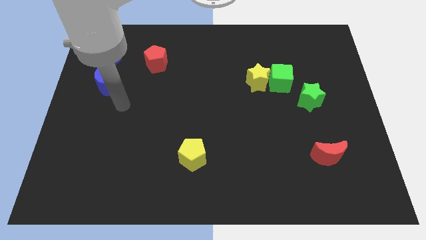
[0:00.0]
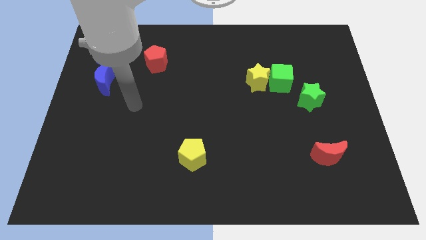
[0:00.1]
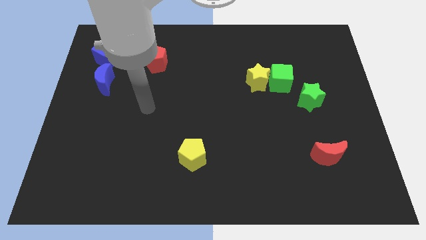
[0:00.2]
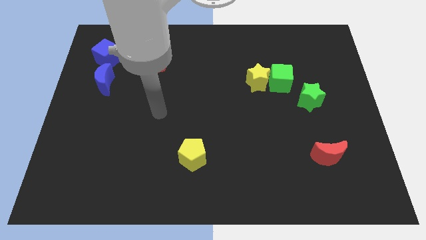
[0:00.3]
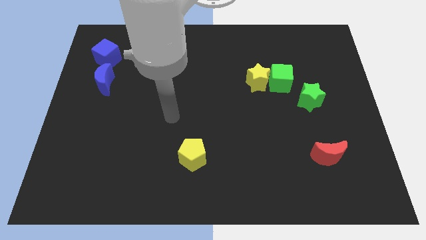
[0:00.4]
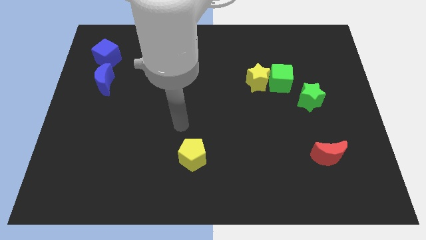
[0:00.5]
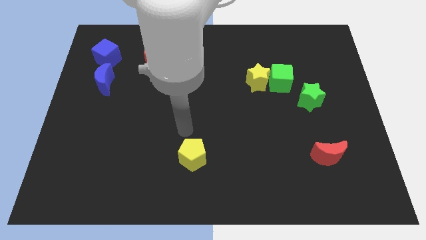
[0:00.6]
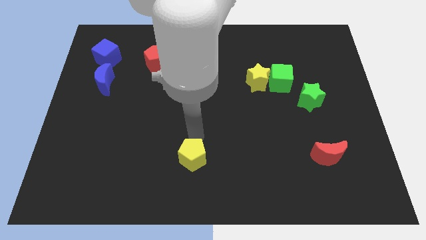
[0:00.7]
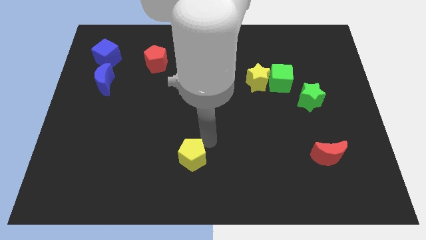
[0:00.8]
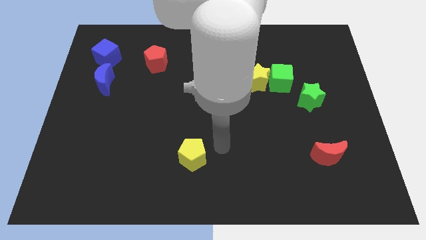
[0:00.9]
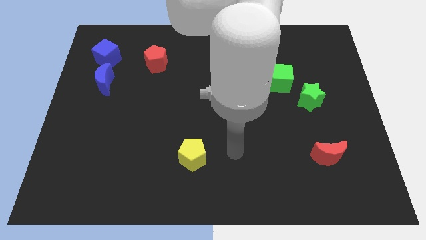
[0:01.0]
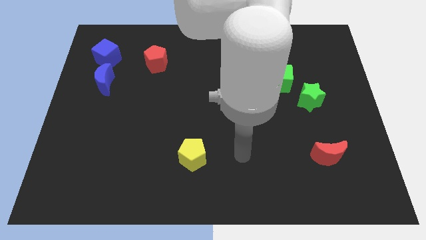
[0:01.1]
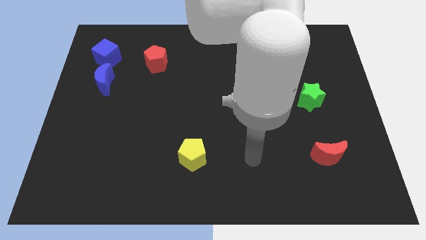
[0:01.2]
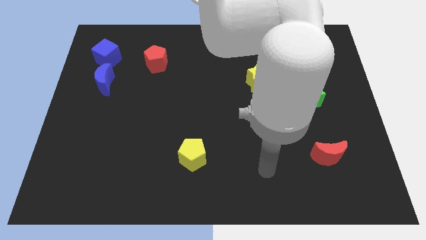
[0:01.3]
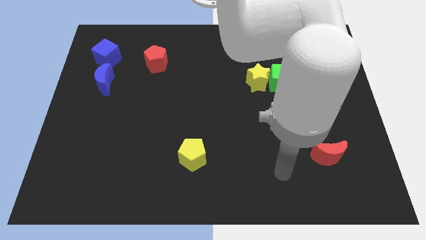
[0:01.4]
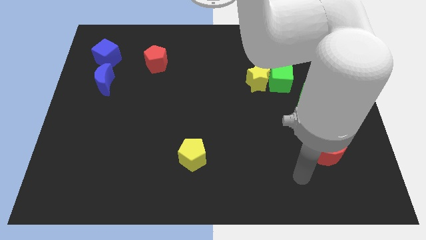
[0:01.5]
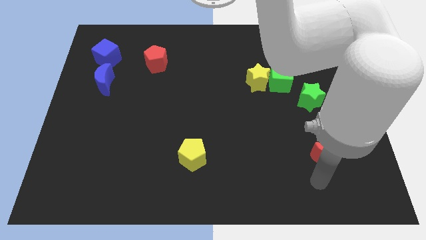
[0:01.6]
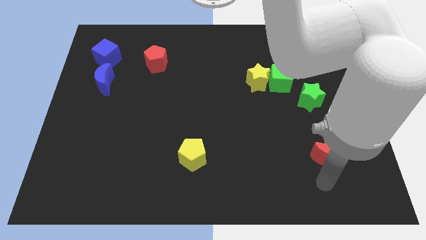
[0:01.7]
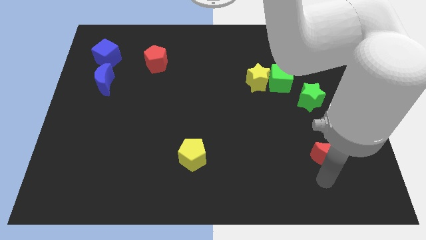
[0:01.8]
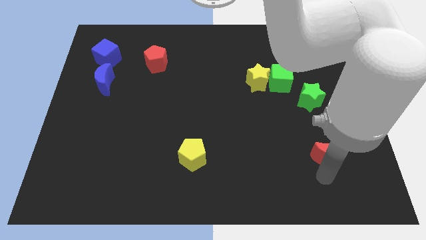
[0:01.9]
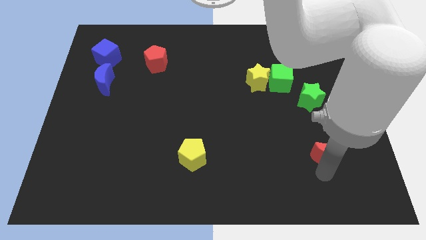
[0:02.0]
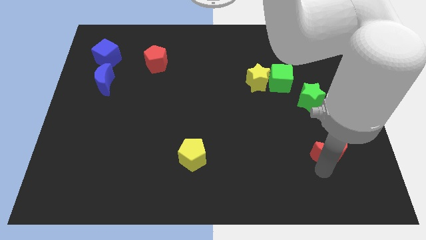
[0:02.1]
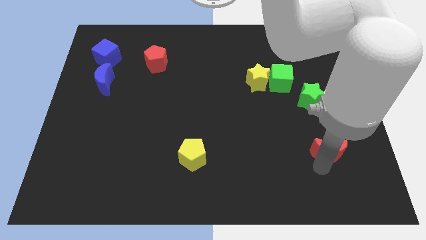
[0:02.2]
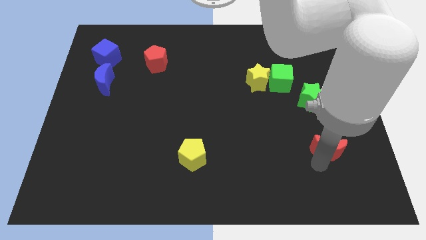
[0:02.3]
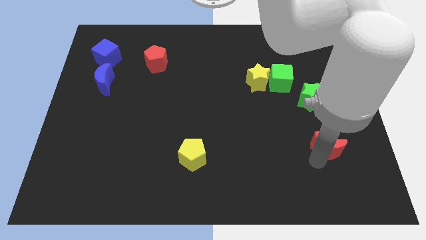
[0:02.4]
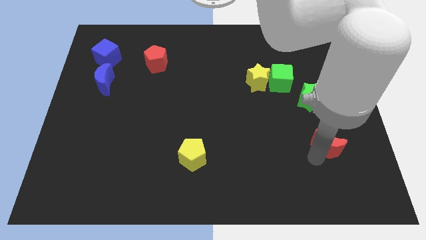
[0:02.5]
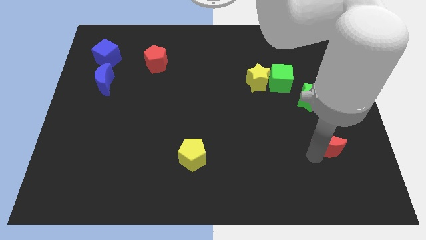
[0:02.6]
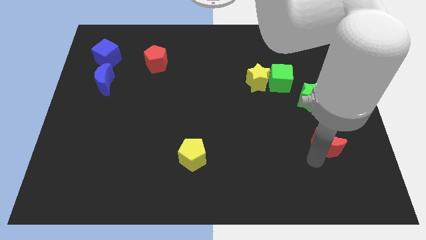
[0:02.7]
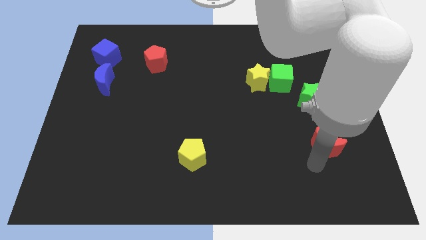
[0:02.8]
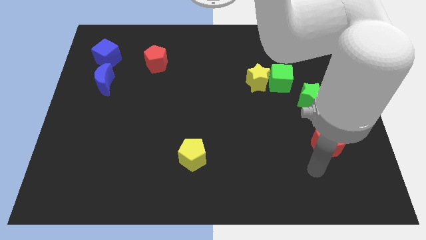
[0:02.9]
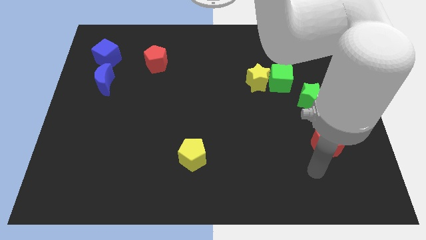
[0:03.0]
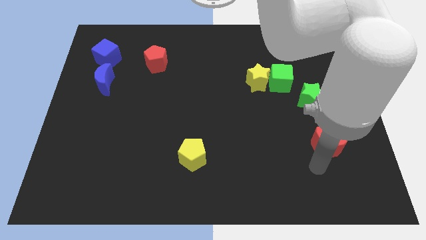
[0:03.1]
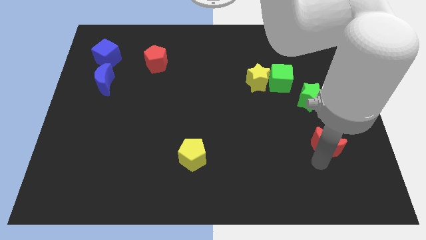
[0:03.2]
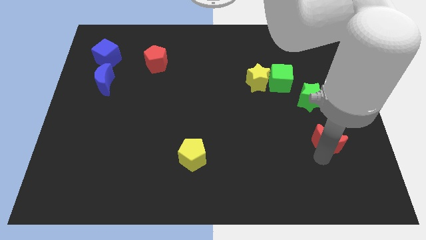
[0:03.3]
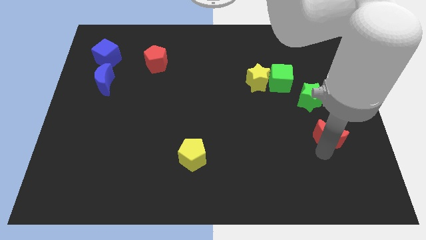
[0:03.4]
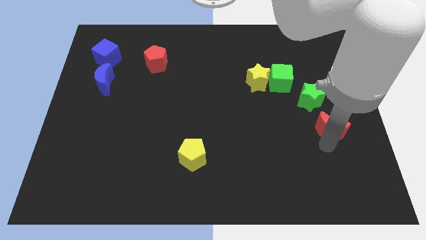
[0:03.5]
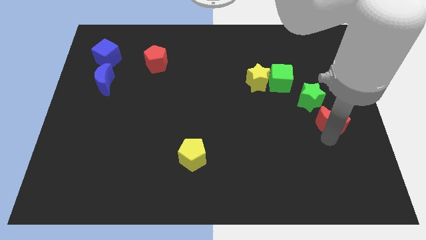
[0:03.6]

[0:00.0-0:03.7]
push the red moon a little upwards

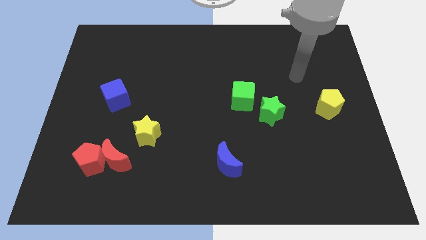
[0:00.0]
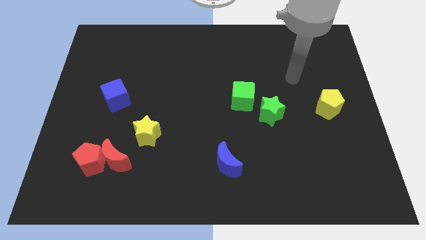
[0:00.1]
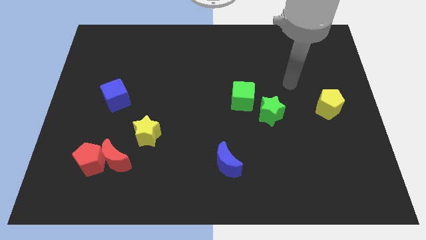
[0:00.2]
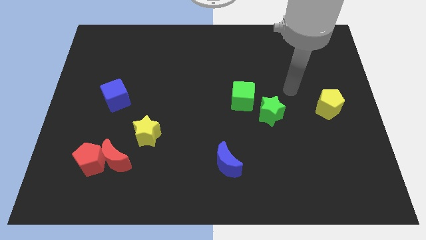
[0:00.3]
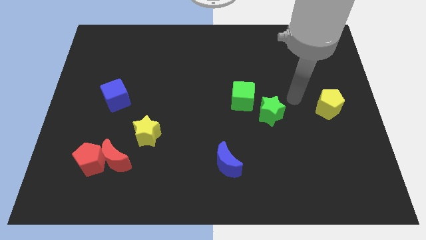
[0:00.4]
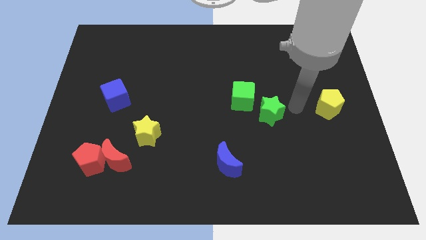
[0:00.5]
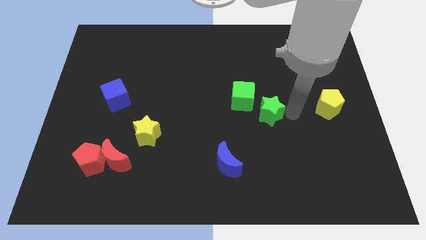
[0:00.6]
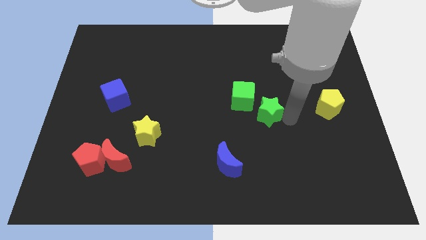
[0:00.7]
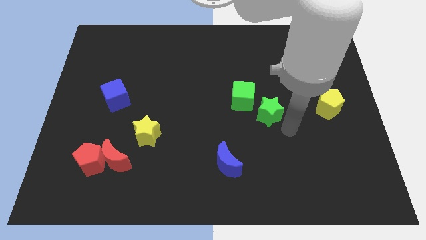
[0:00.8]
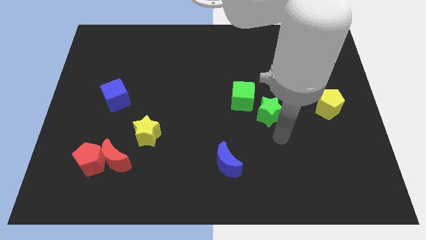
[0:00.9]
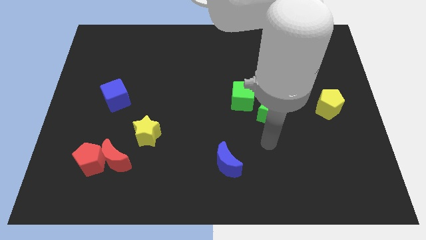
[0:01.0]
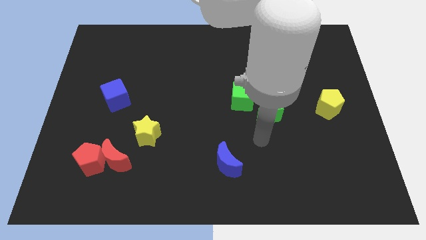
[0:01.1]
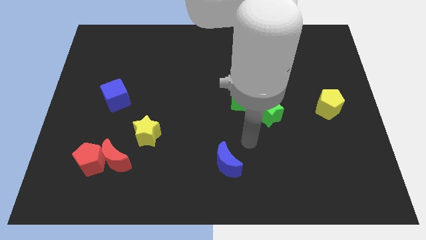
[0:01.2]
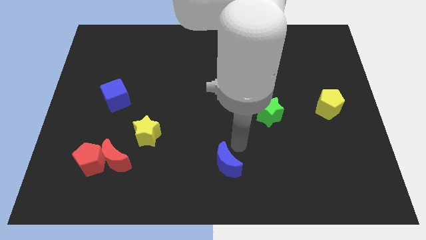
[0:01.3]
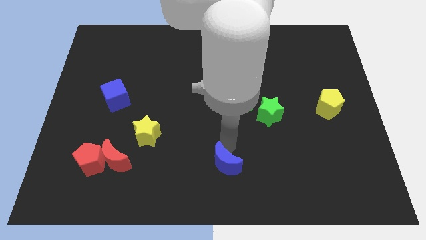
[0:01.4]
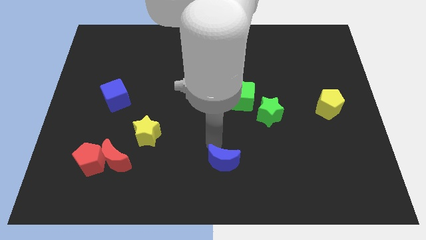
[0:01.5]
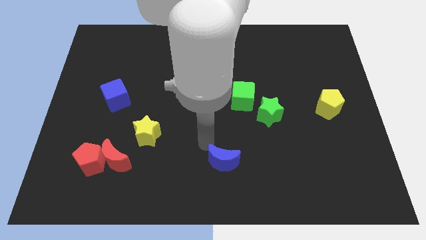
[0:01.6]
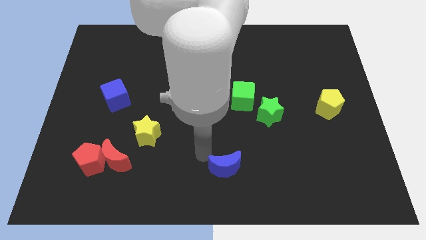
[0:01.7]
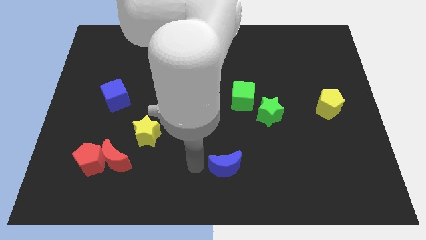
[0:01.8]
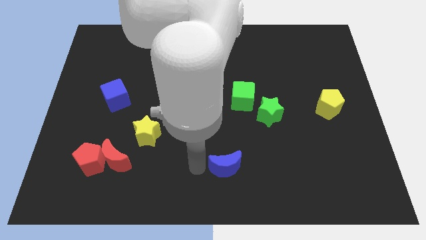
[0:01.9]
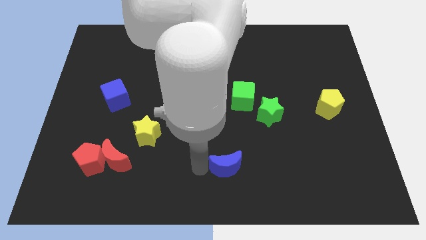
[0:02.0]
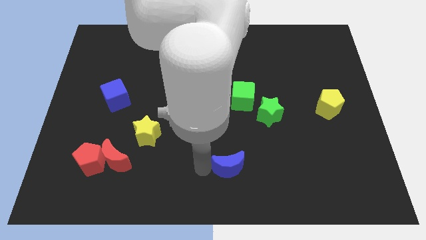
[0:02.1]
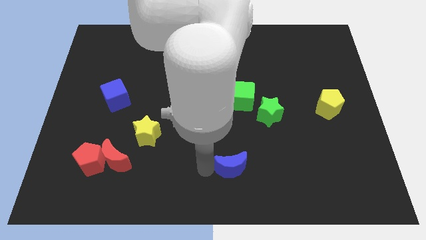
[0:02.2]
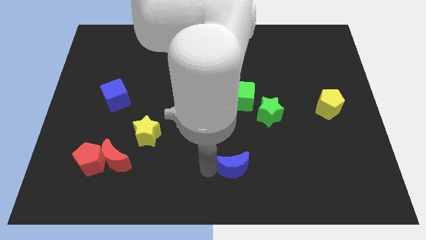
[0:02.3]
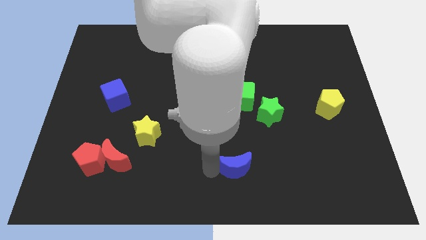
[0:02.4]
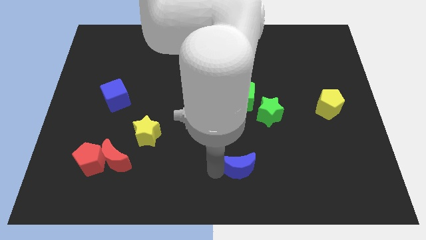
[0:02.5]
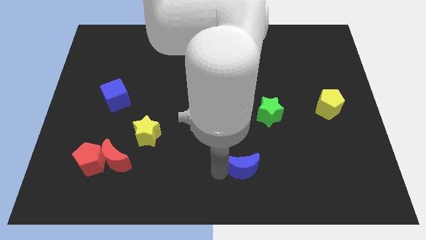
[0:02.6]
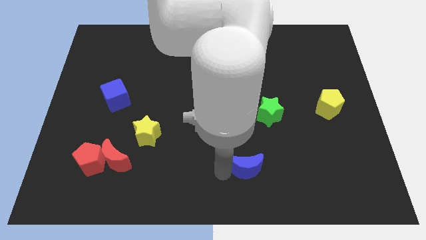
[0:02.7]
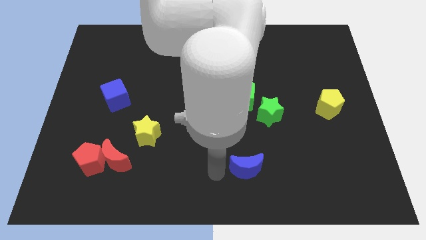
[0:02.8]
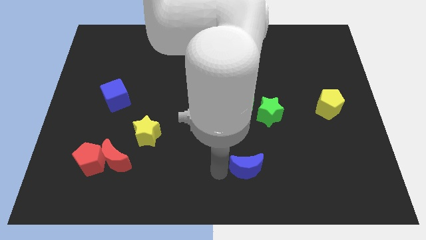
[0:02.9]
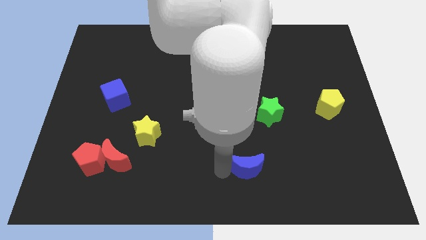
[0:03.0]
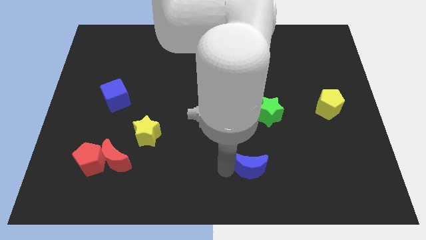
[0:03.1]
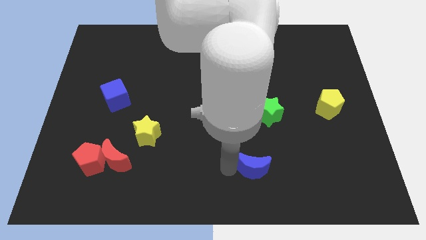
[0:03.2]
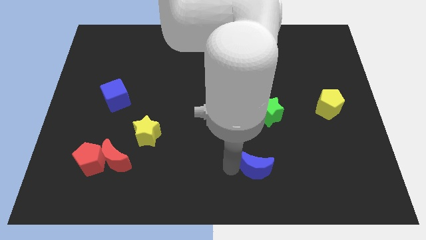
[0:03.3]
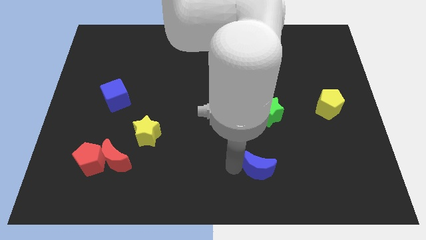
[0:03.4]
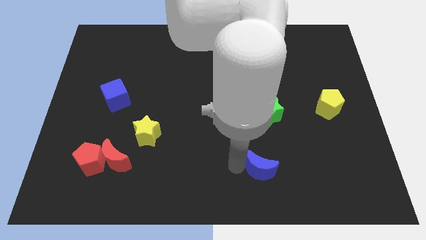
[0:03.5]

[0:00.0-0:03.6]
slightly push the blue moon to the right

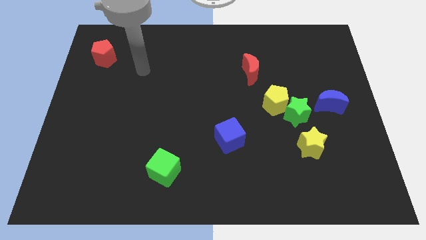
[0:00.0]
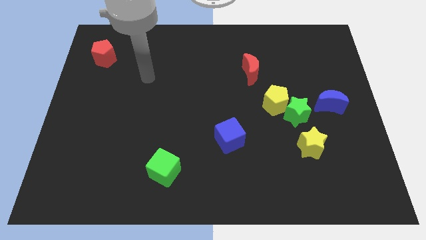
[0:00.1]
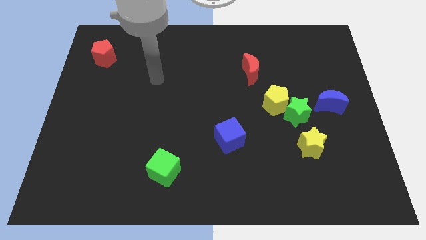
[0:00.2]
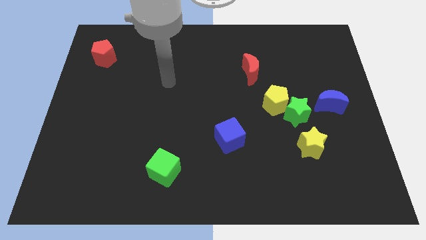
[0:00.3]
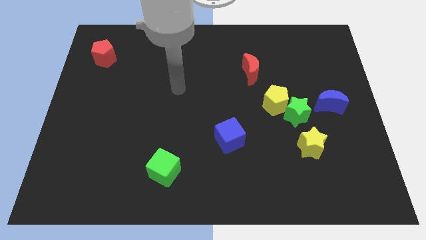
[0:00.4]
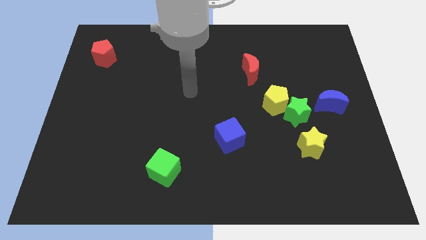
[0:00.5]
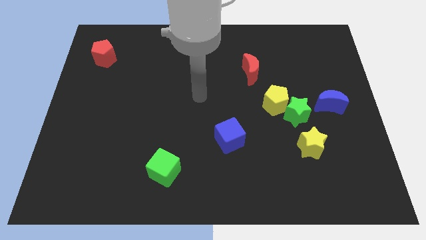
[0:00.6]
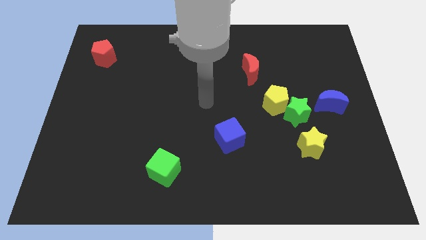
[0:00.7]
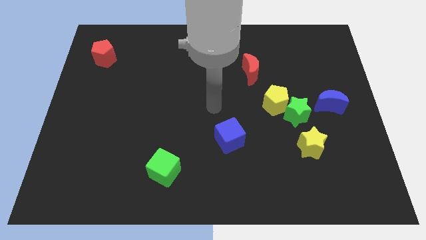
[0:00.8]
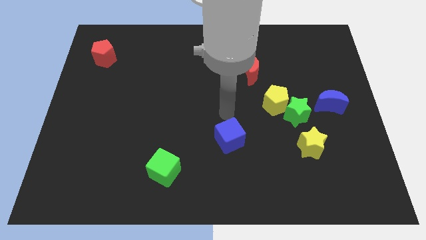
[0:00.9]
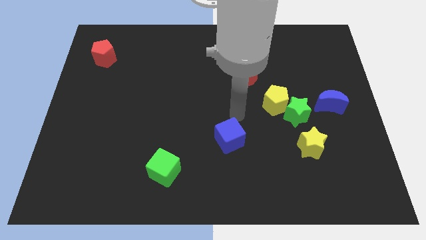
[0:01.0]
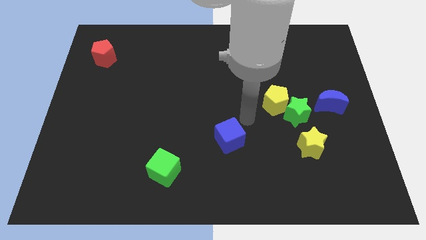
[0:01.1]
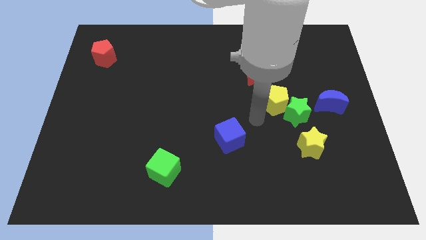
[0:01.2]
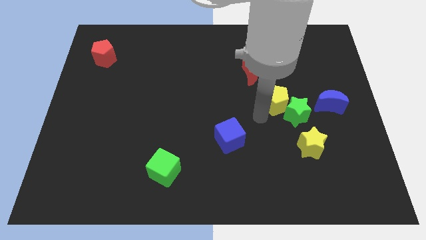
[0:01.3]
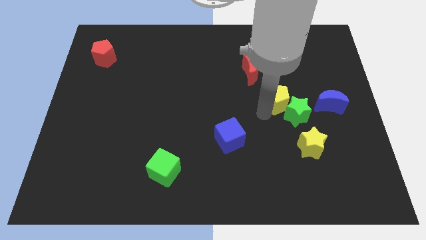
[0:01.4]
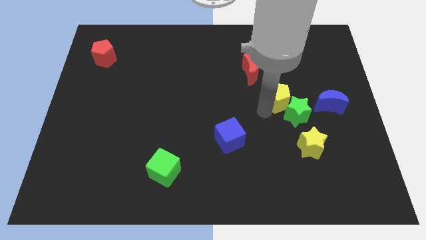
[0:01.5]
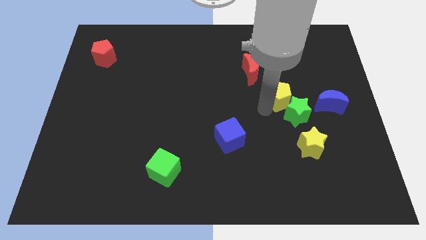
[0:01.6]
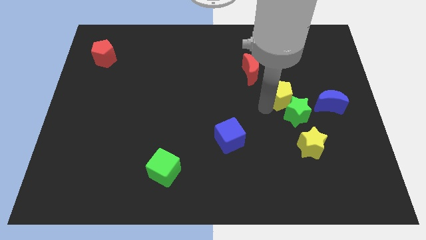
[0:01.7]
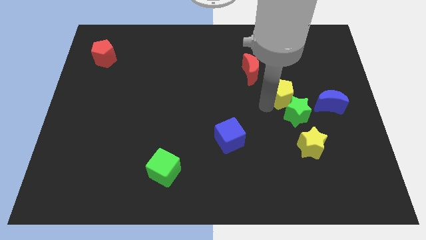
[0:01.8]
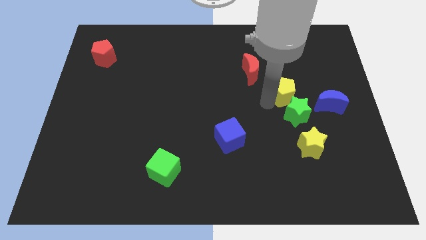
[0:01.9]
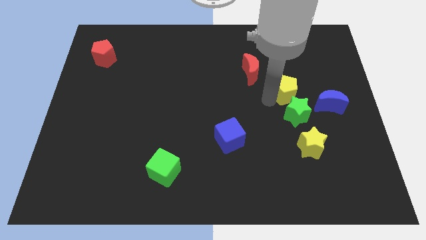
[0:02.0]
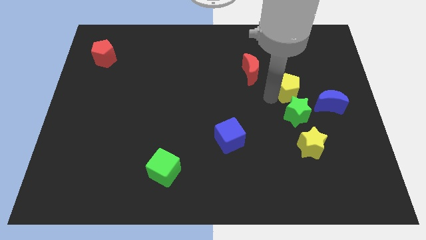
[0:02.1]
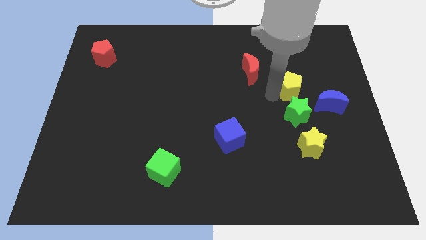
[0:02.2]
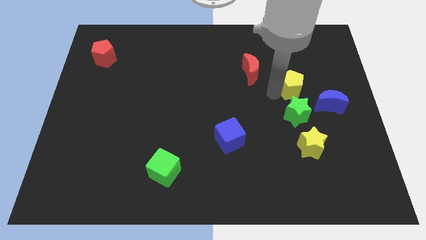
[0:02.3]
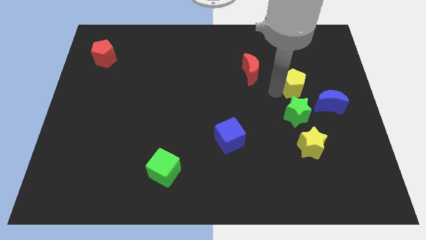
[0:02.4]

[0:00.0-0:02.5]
slide the yellow pentagon a bit diagonally up and to the right
